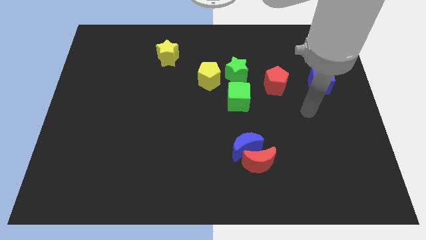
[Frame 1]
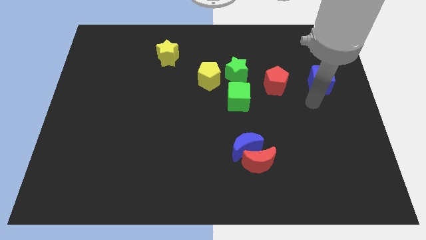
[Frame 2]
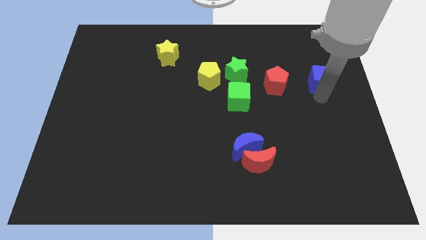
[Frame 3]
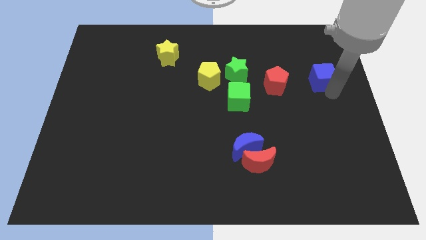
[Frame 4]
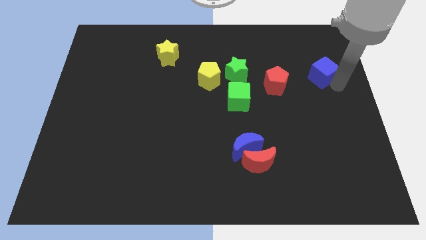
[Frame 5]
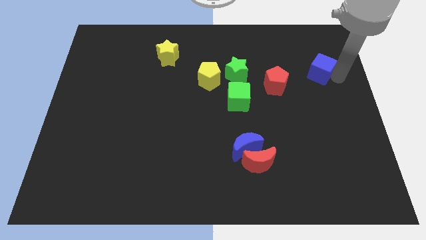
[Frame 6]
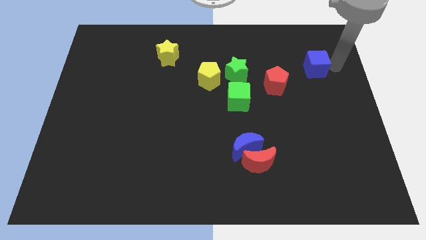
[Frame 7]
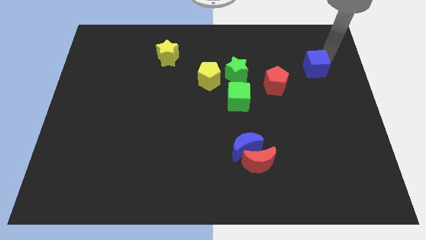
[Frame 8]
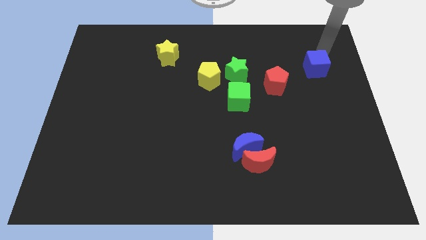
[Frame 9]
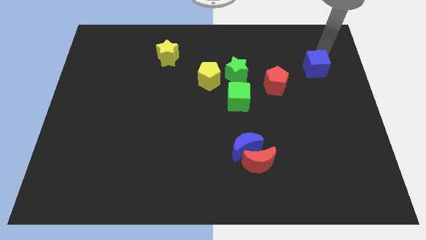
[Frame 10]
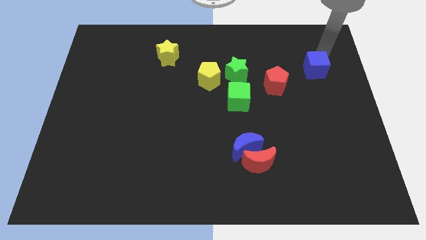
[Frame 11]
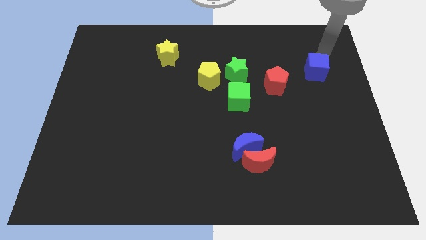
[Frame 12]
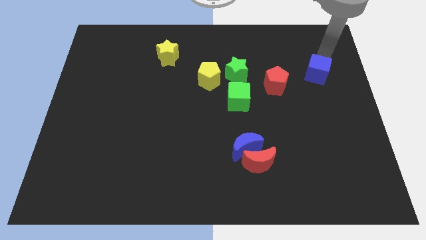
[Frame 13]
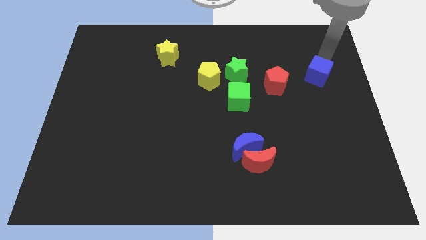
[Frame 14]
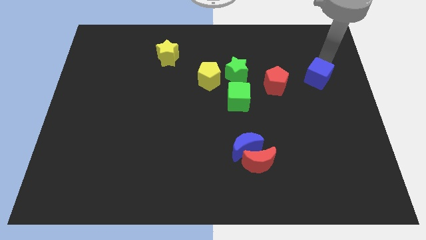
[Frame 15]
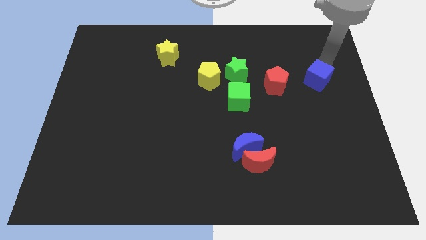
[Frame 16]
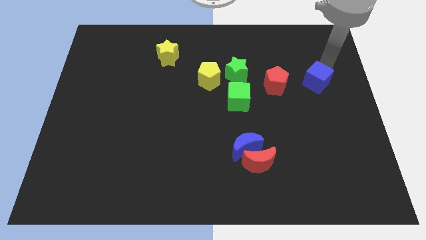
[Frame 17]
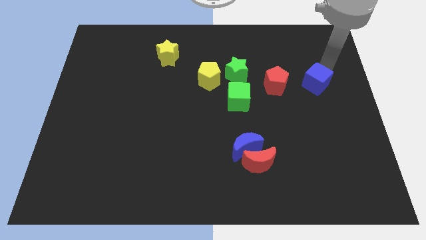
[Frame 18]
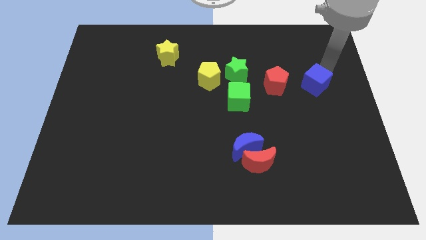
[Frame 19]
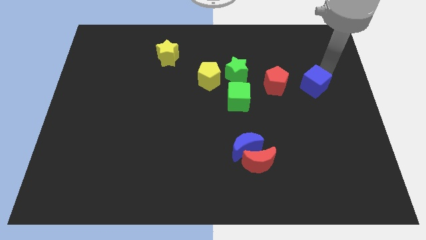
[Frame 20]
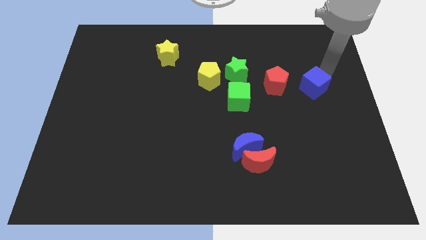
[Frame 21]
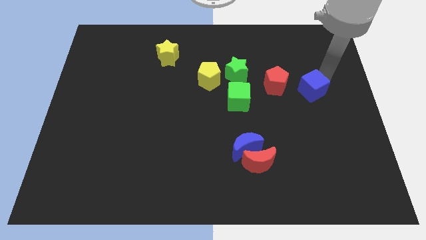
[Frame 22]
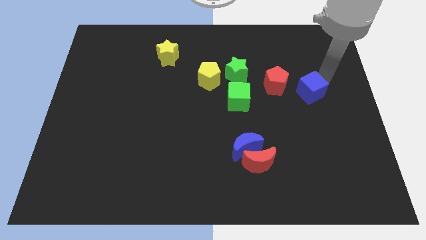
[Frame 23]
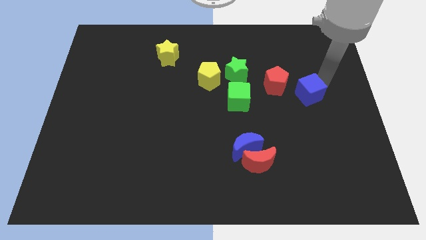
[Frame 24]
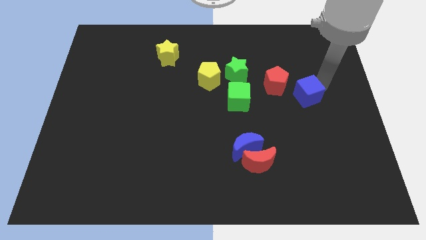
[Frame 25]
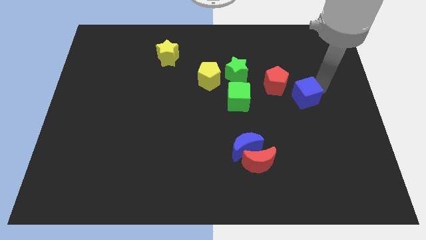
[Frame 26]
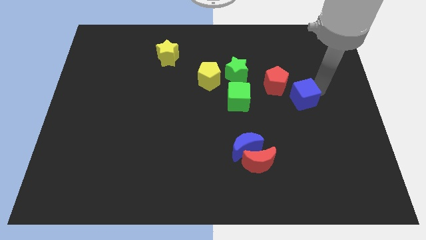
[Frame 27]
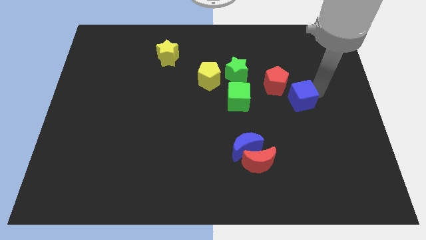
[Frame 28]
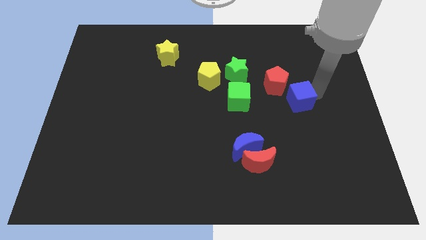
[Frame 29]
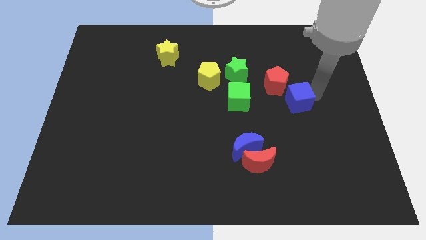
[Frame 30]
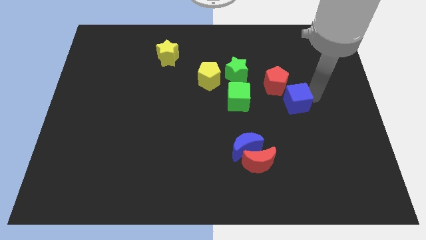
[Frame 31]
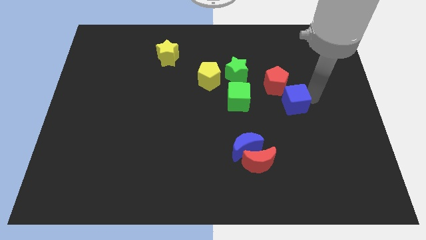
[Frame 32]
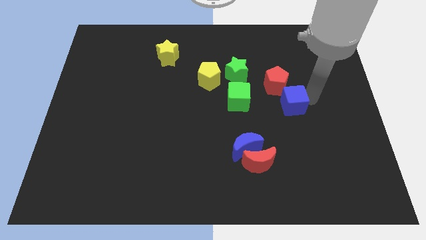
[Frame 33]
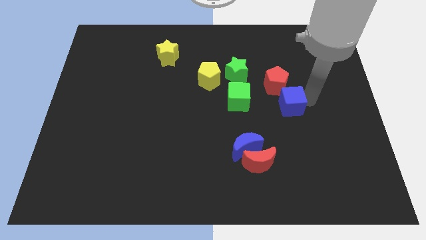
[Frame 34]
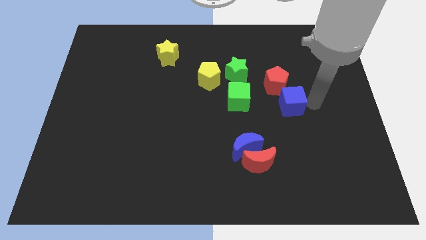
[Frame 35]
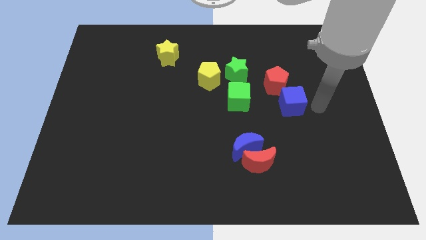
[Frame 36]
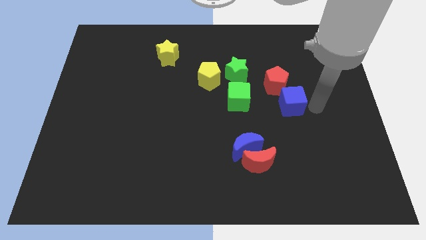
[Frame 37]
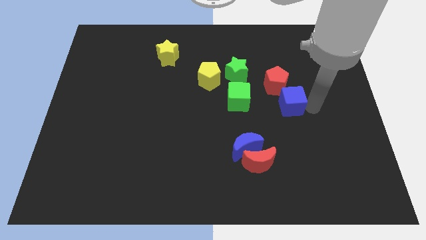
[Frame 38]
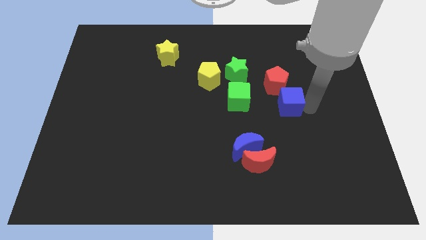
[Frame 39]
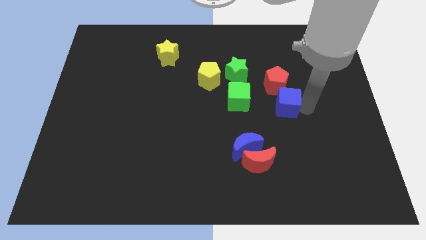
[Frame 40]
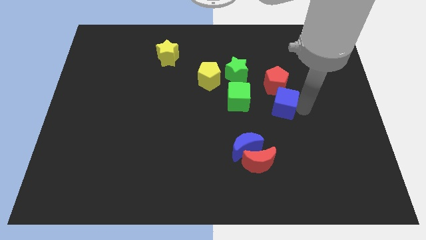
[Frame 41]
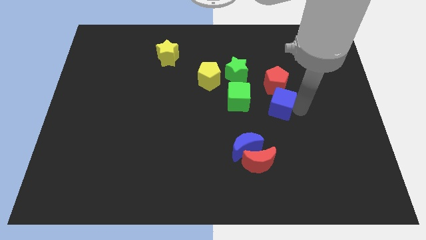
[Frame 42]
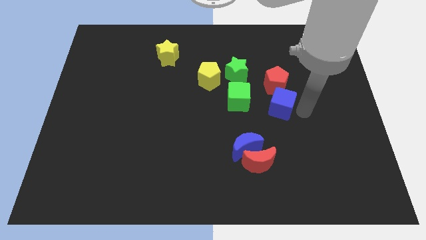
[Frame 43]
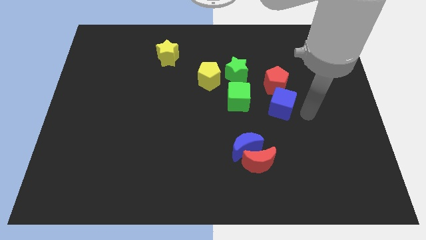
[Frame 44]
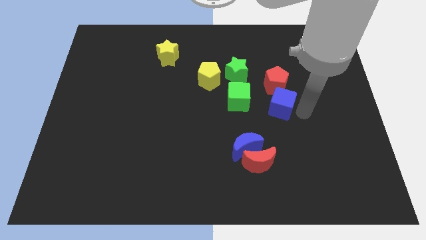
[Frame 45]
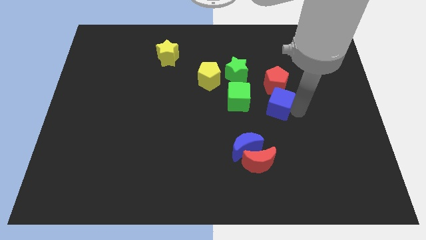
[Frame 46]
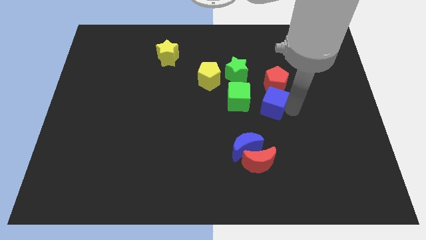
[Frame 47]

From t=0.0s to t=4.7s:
move the blue cube to the bottom left side of the red pentagon

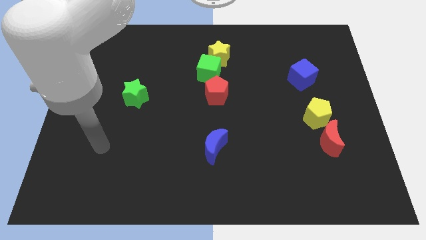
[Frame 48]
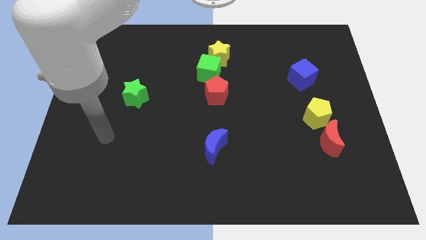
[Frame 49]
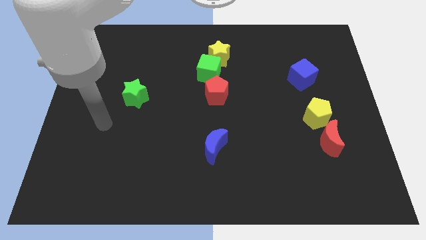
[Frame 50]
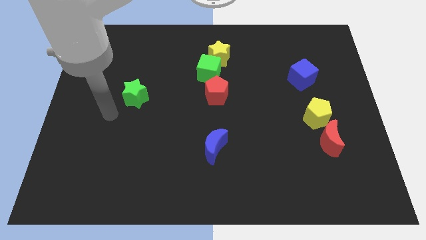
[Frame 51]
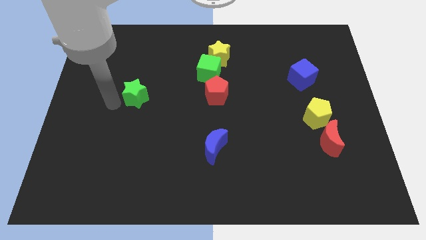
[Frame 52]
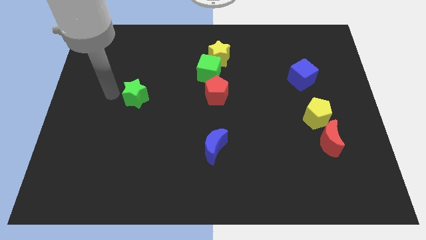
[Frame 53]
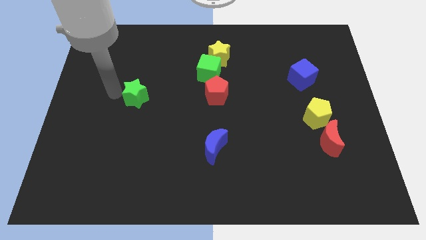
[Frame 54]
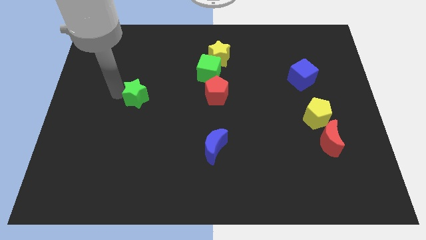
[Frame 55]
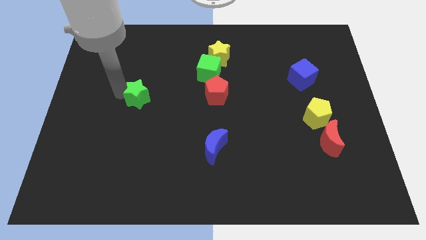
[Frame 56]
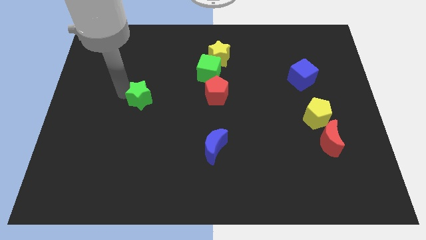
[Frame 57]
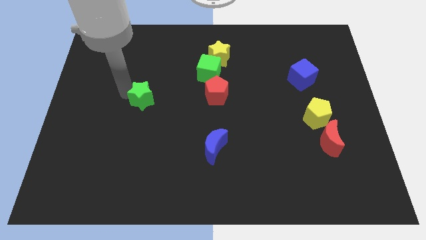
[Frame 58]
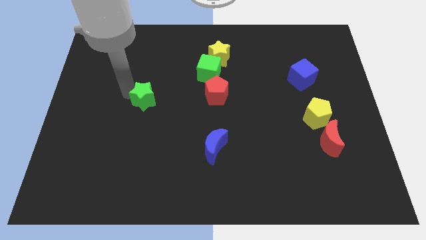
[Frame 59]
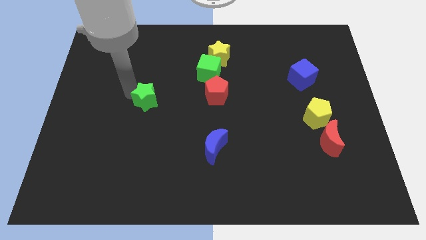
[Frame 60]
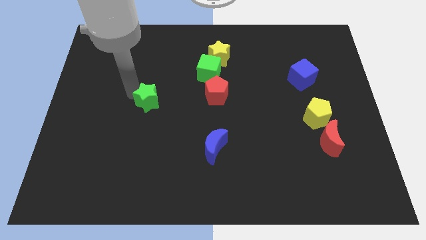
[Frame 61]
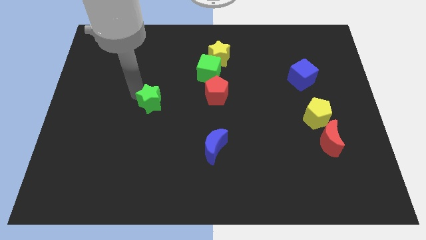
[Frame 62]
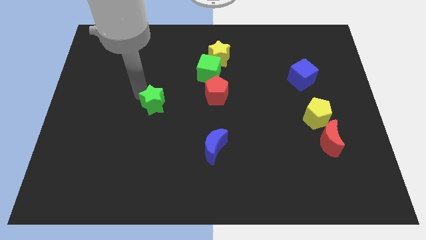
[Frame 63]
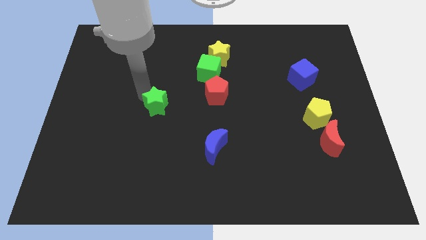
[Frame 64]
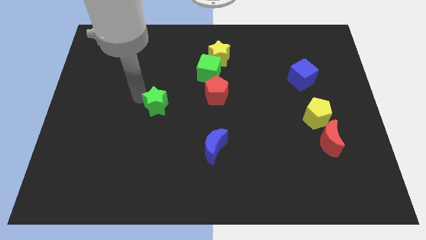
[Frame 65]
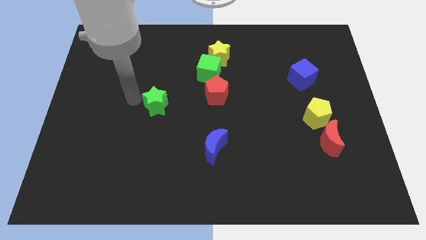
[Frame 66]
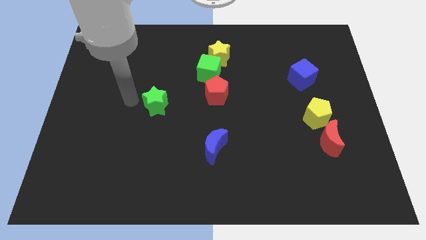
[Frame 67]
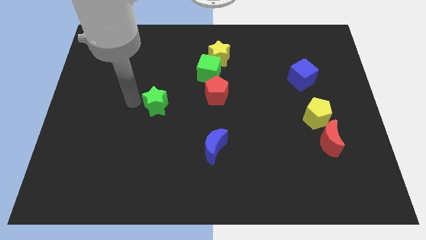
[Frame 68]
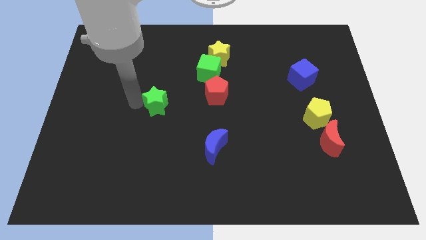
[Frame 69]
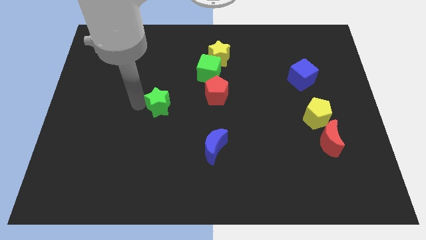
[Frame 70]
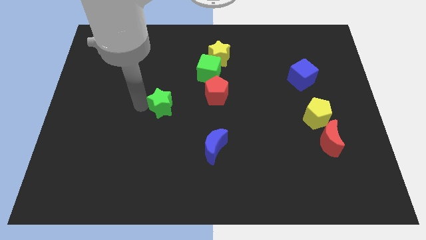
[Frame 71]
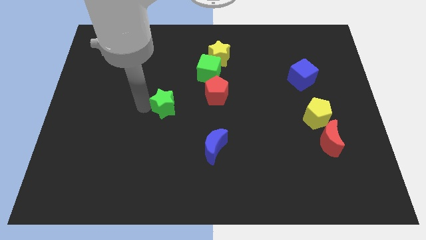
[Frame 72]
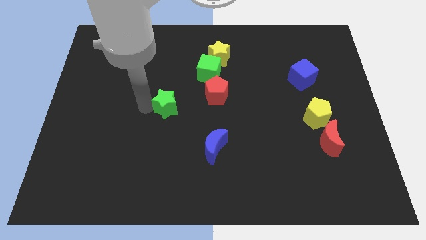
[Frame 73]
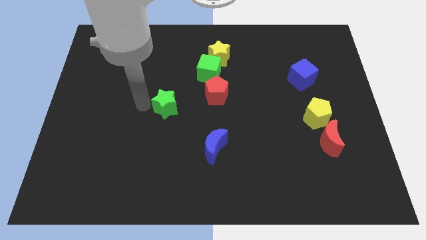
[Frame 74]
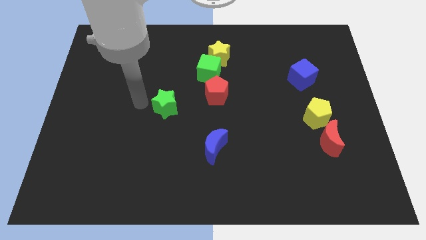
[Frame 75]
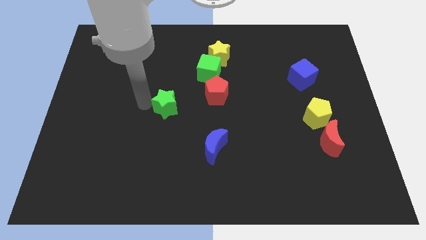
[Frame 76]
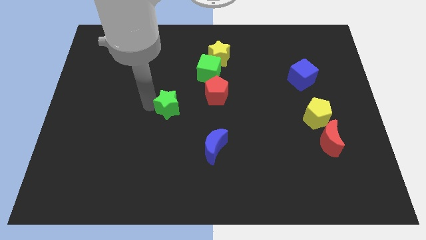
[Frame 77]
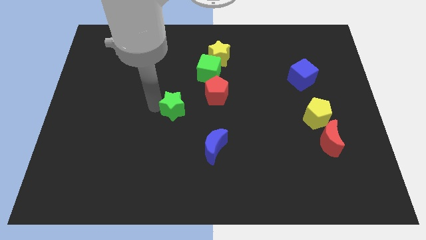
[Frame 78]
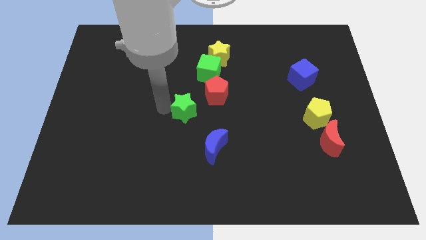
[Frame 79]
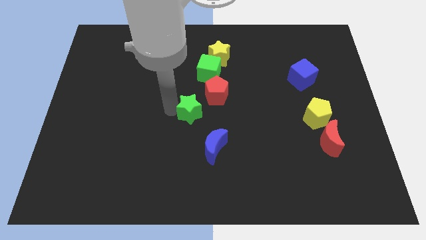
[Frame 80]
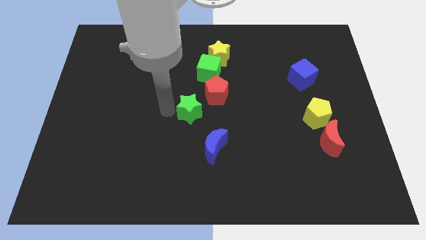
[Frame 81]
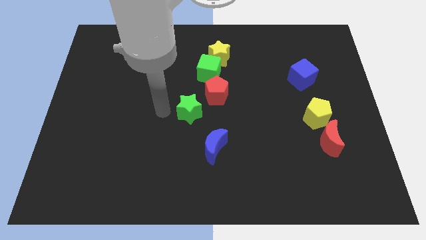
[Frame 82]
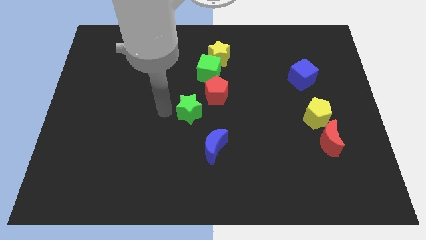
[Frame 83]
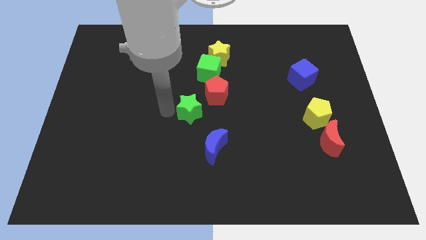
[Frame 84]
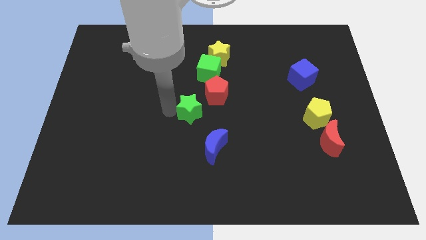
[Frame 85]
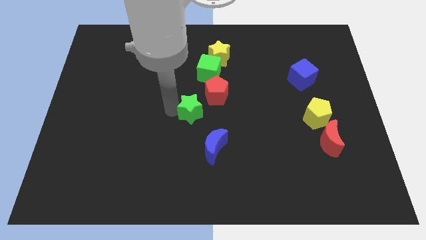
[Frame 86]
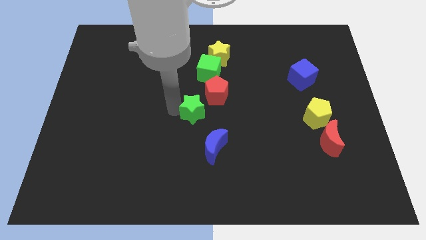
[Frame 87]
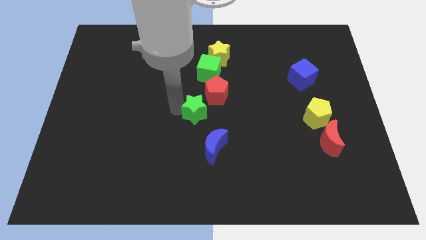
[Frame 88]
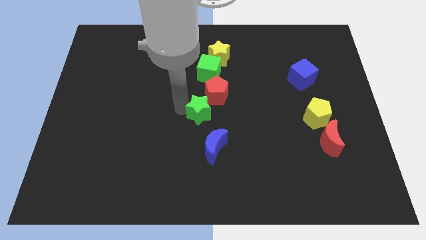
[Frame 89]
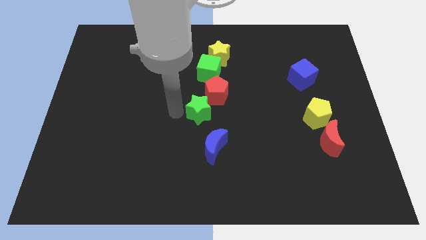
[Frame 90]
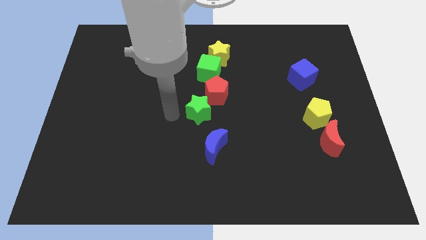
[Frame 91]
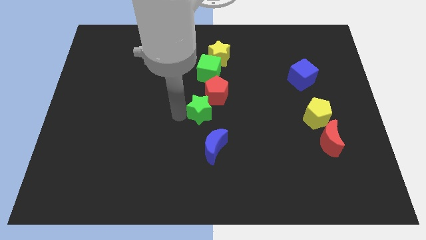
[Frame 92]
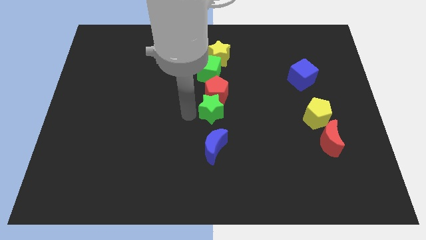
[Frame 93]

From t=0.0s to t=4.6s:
push the green star diagonally down and to the right of the red pentagon
